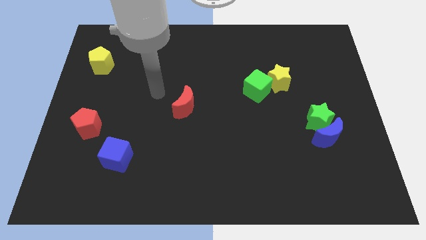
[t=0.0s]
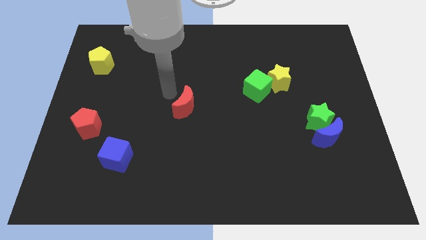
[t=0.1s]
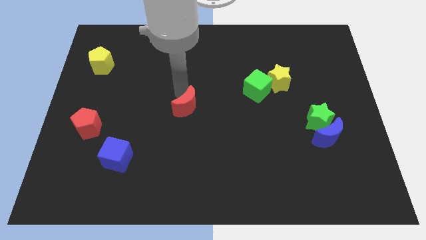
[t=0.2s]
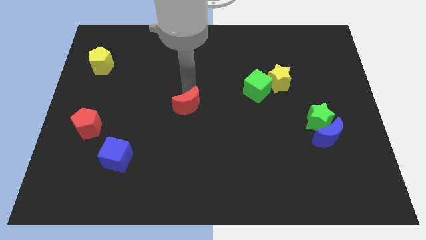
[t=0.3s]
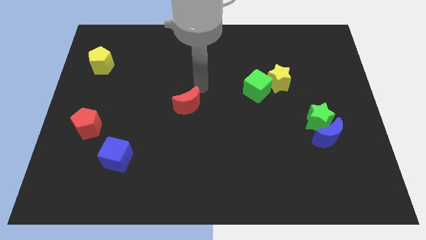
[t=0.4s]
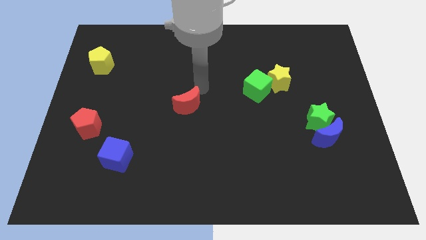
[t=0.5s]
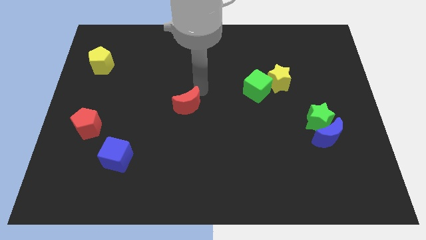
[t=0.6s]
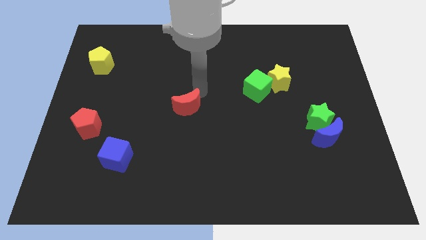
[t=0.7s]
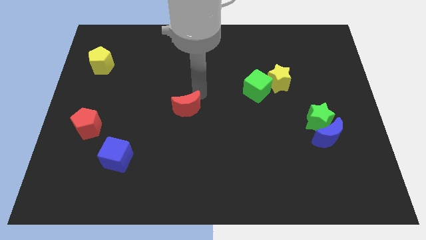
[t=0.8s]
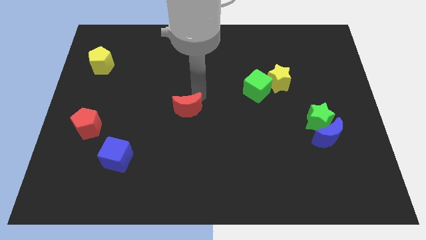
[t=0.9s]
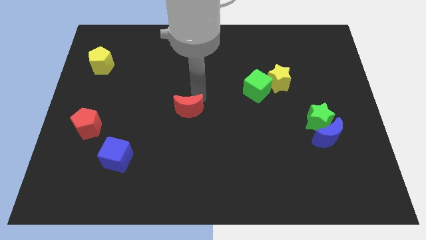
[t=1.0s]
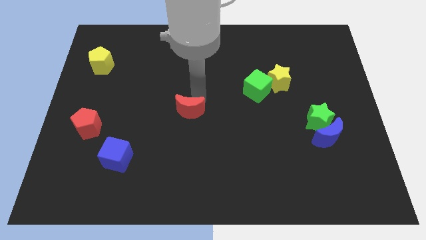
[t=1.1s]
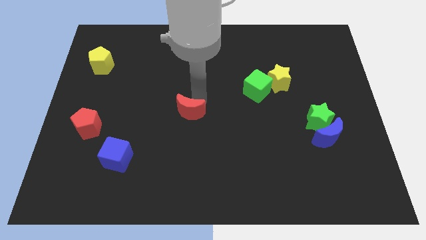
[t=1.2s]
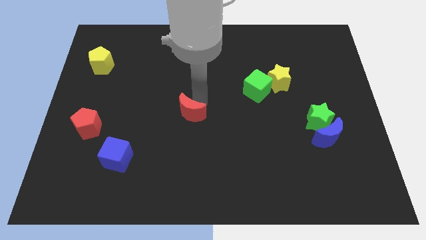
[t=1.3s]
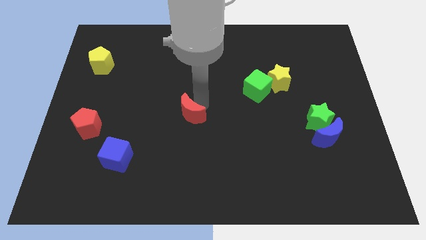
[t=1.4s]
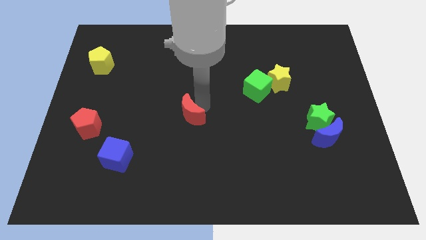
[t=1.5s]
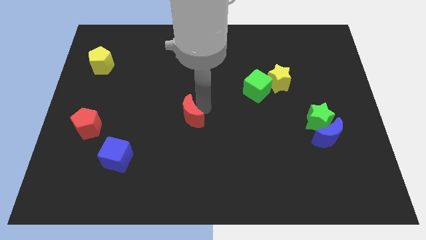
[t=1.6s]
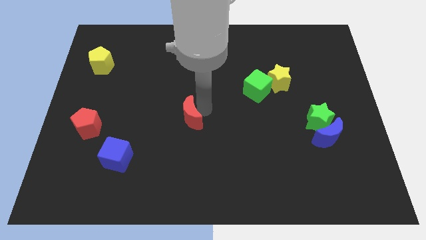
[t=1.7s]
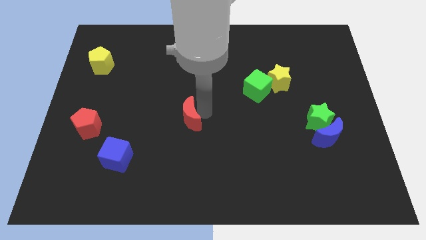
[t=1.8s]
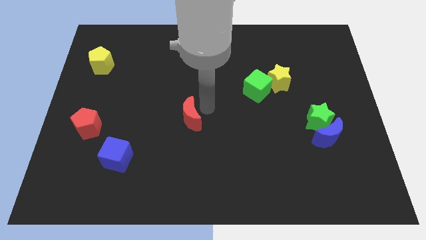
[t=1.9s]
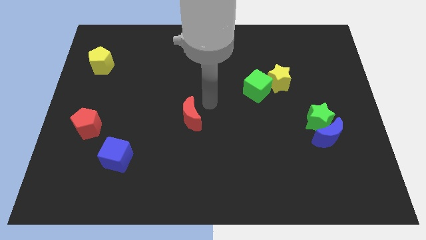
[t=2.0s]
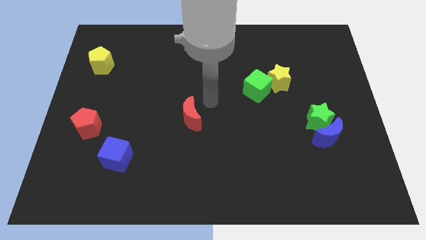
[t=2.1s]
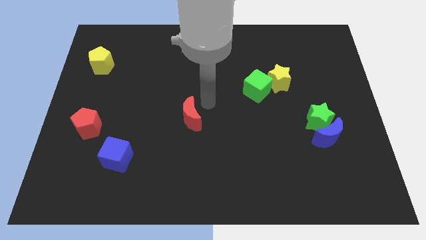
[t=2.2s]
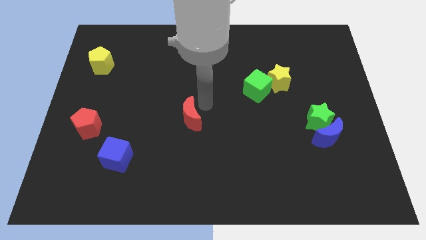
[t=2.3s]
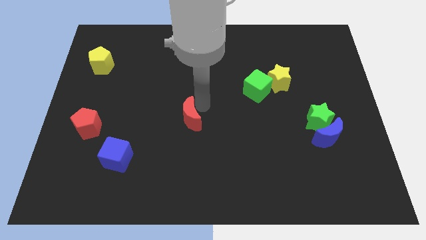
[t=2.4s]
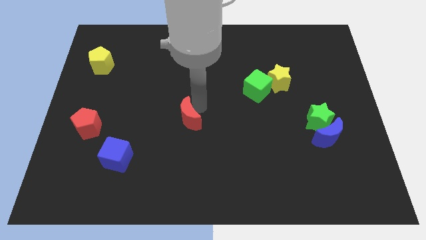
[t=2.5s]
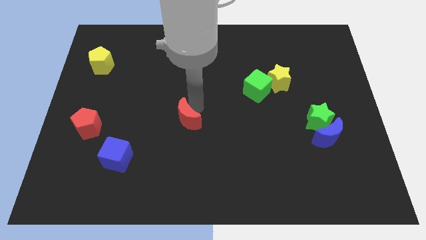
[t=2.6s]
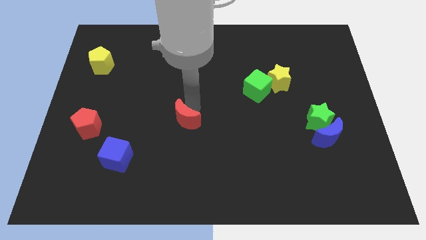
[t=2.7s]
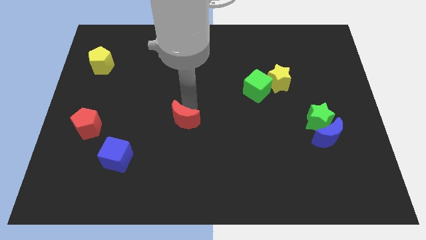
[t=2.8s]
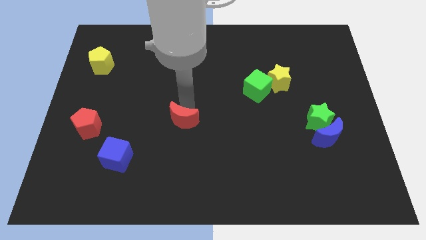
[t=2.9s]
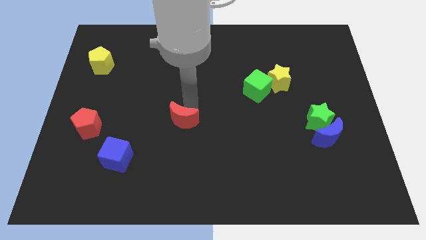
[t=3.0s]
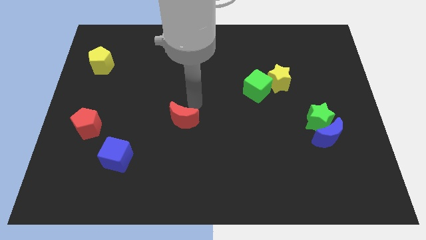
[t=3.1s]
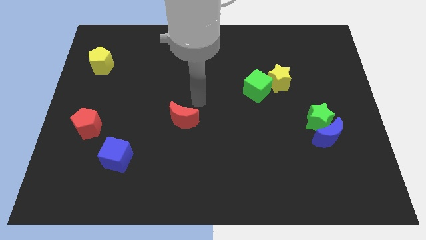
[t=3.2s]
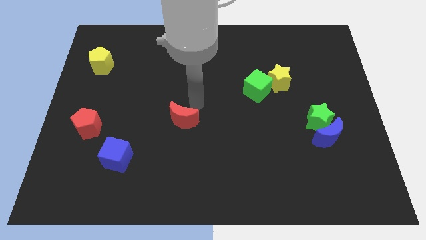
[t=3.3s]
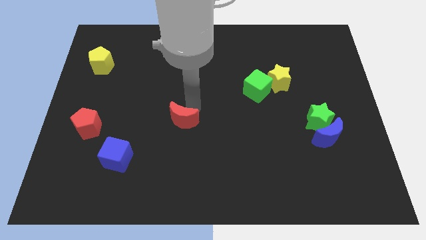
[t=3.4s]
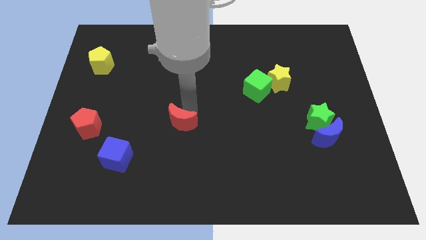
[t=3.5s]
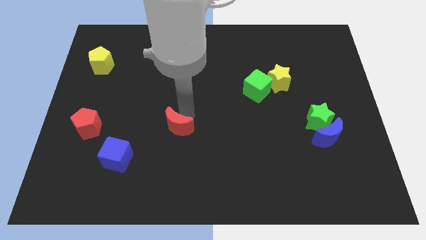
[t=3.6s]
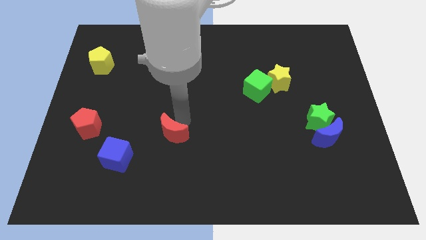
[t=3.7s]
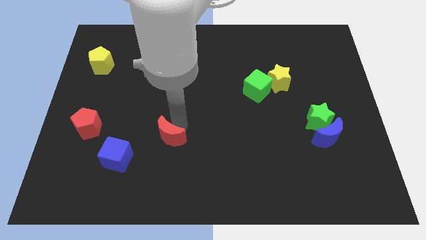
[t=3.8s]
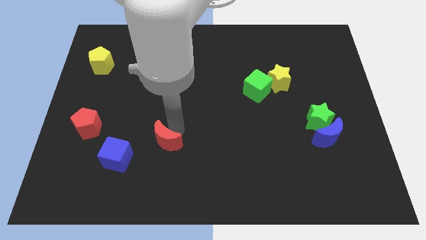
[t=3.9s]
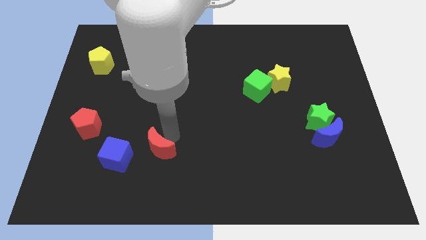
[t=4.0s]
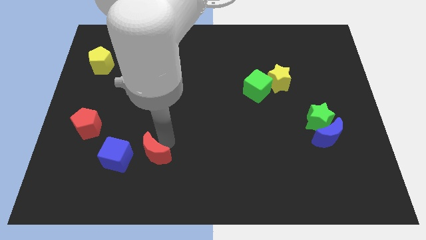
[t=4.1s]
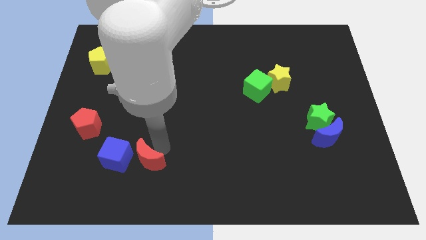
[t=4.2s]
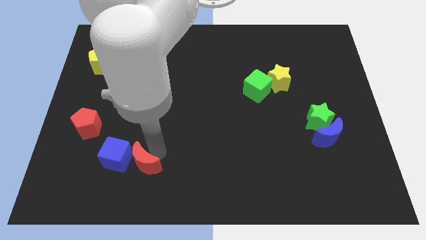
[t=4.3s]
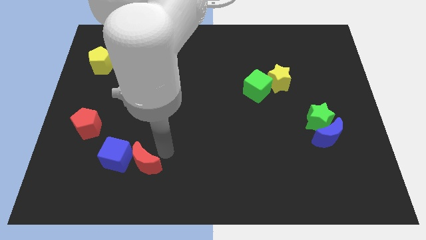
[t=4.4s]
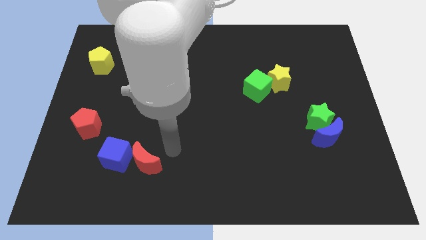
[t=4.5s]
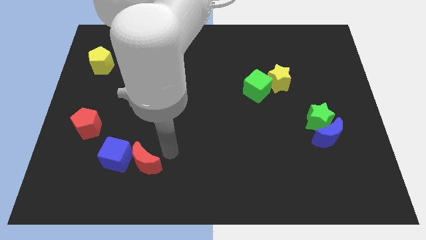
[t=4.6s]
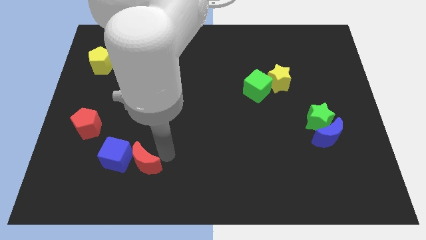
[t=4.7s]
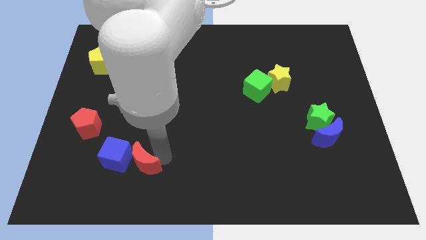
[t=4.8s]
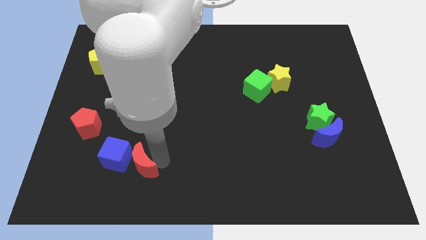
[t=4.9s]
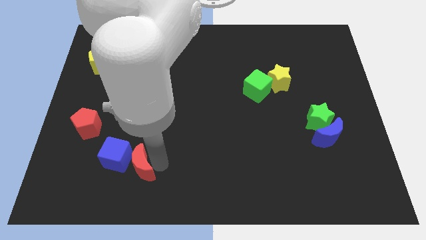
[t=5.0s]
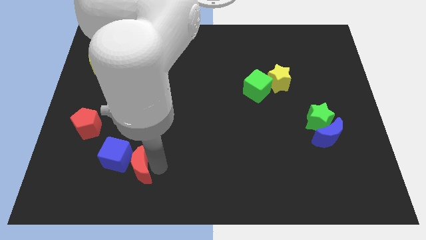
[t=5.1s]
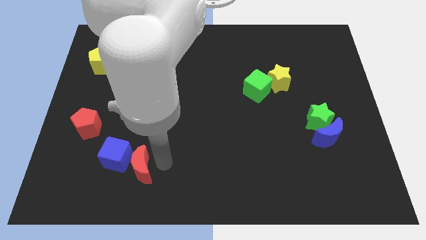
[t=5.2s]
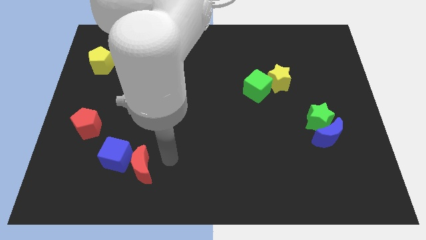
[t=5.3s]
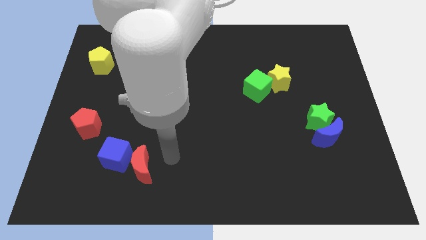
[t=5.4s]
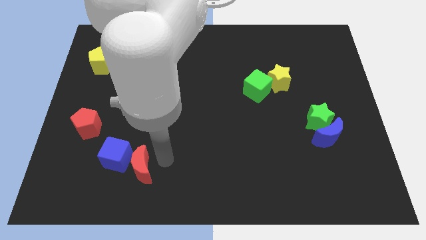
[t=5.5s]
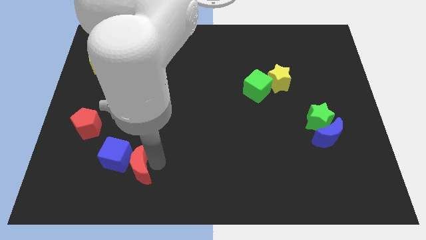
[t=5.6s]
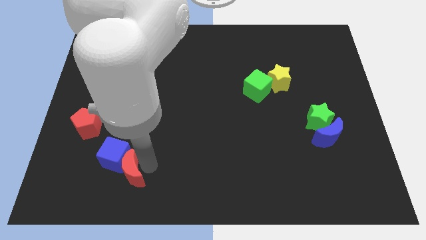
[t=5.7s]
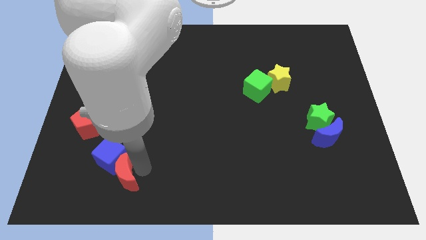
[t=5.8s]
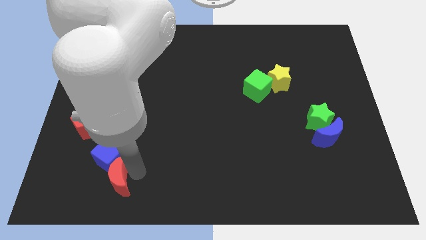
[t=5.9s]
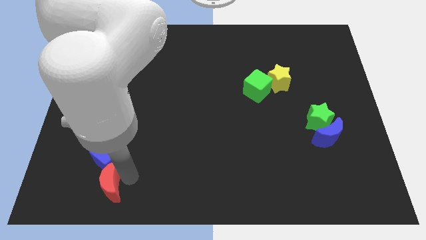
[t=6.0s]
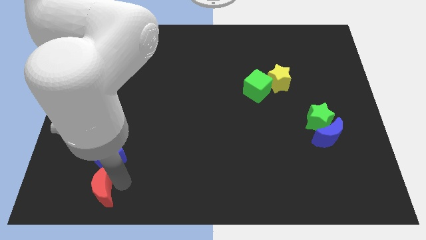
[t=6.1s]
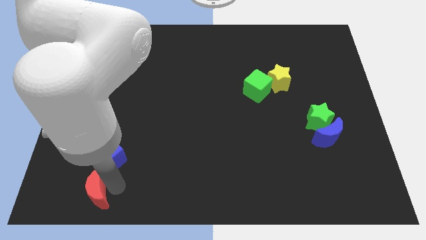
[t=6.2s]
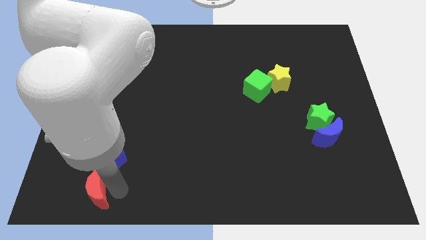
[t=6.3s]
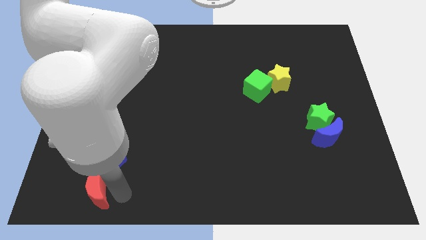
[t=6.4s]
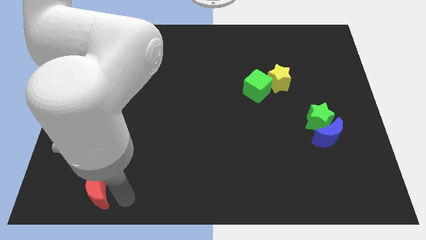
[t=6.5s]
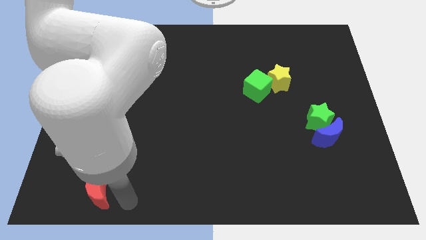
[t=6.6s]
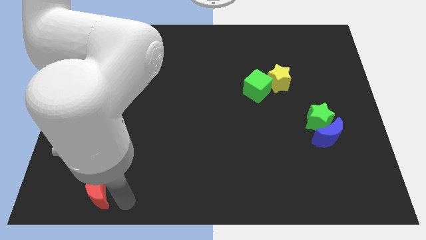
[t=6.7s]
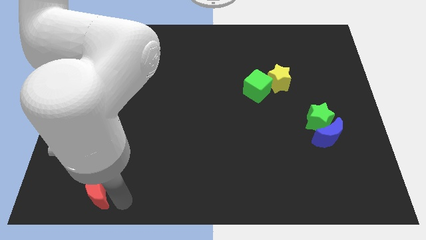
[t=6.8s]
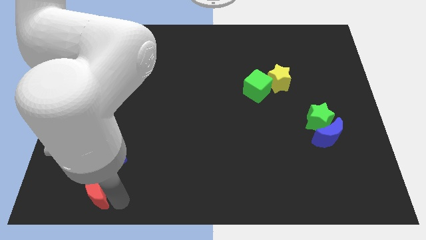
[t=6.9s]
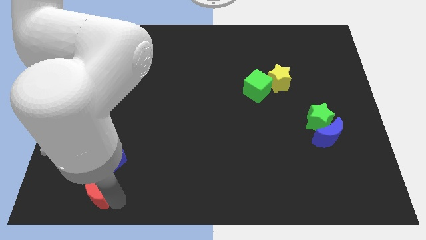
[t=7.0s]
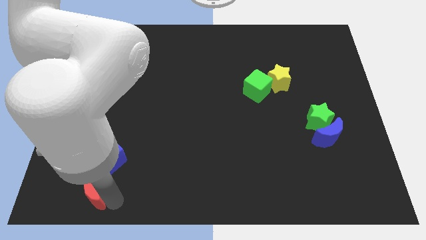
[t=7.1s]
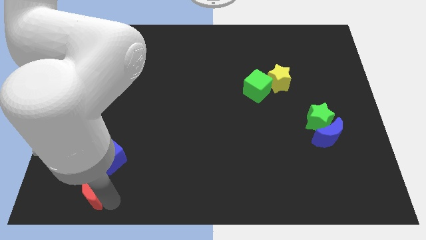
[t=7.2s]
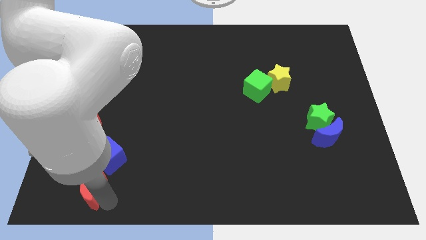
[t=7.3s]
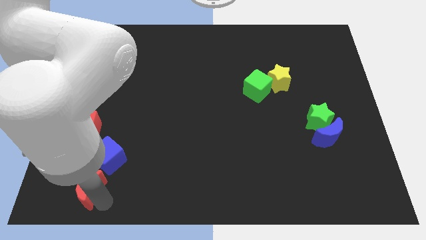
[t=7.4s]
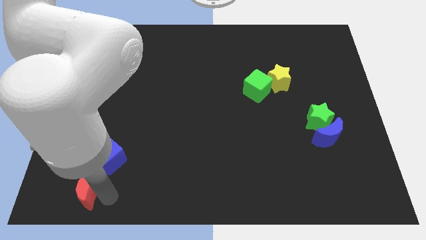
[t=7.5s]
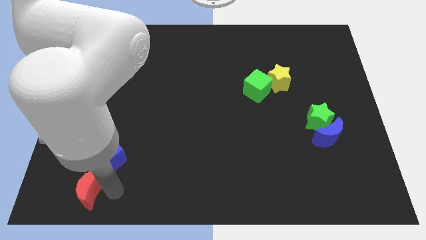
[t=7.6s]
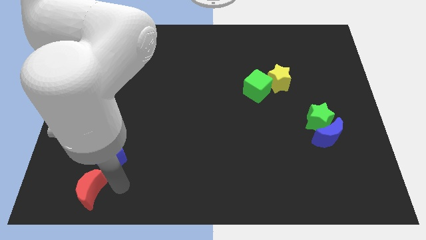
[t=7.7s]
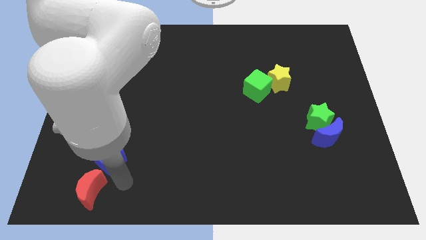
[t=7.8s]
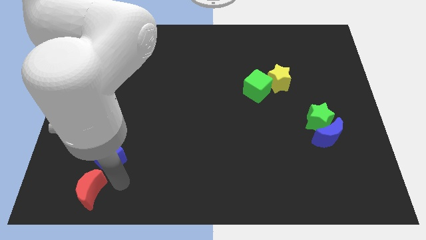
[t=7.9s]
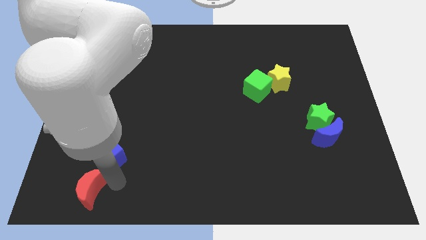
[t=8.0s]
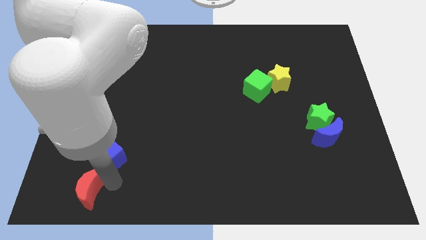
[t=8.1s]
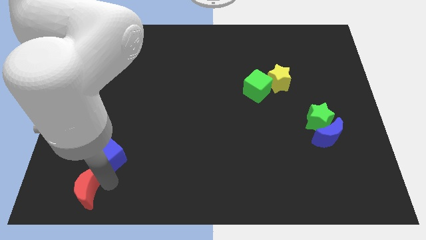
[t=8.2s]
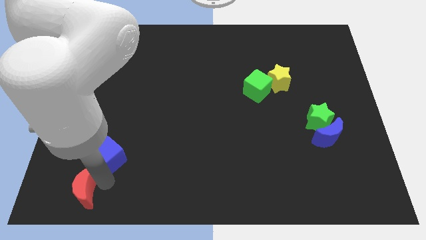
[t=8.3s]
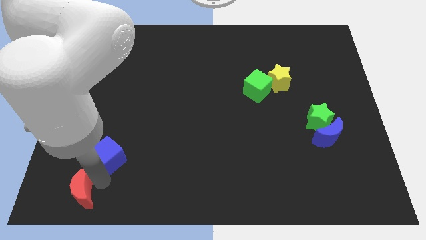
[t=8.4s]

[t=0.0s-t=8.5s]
push the red moon to the bottom left
